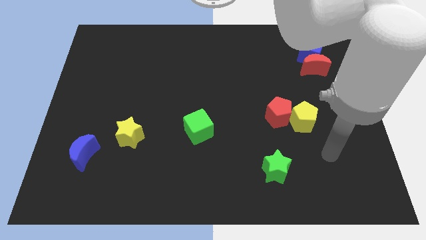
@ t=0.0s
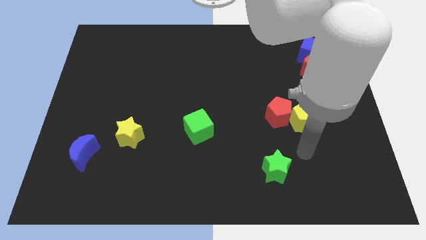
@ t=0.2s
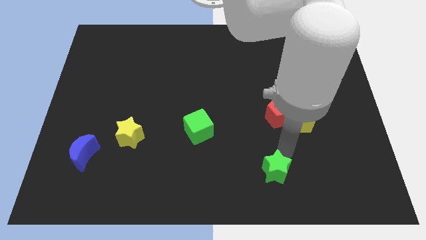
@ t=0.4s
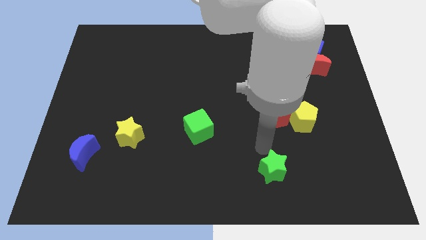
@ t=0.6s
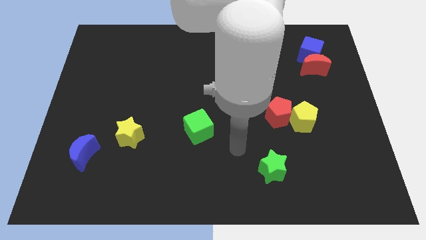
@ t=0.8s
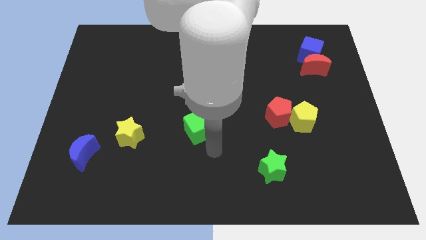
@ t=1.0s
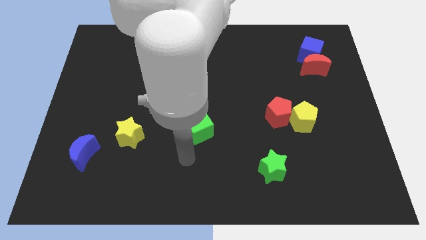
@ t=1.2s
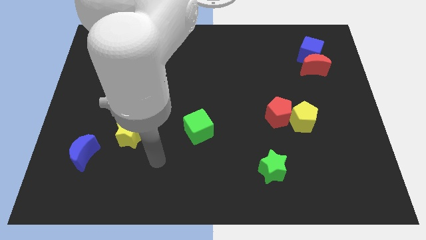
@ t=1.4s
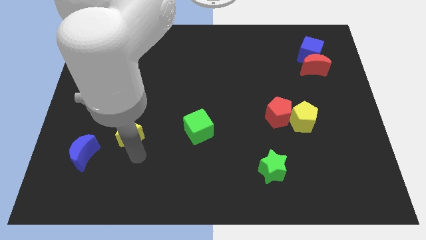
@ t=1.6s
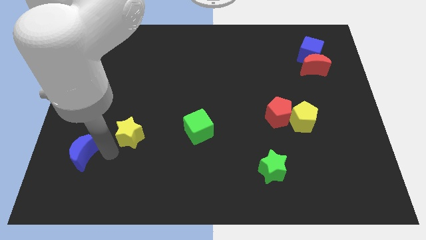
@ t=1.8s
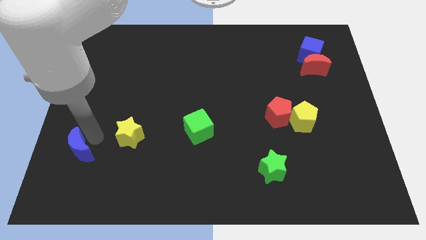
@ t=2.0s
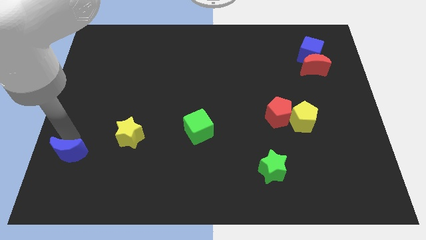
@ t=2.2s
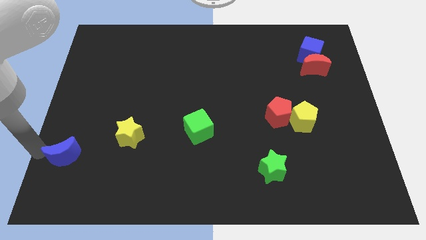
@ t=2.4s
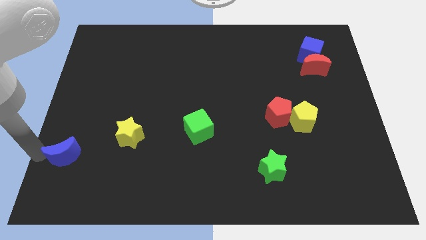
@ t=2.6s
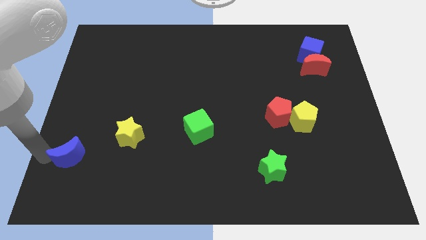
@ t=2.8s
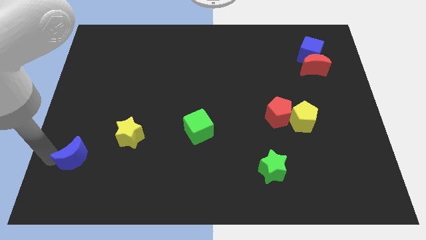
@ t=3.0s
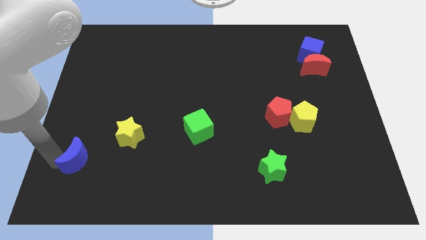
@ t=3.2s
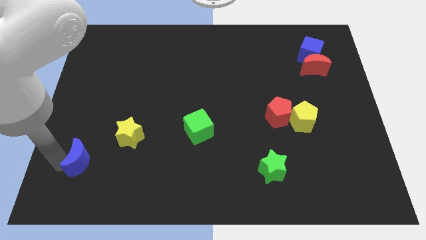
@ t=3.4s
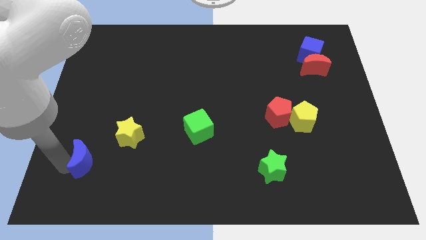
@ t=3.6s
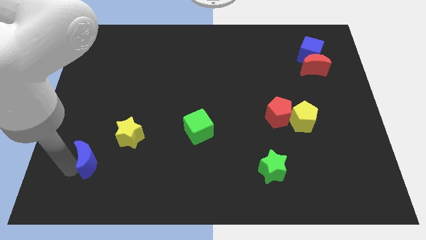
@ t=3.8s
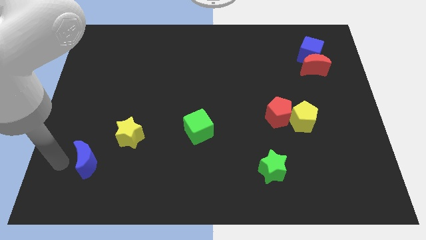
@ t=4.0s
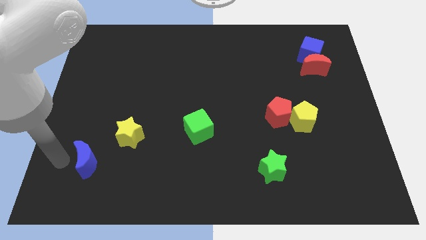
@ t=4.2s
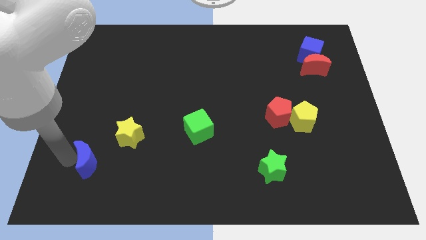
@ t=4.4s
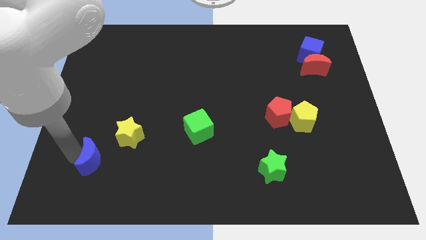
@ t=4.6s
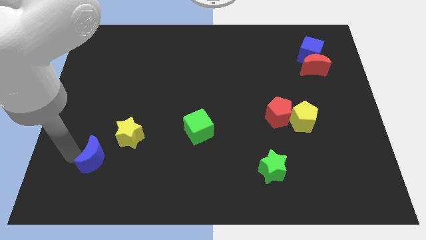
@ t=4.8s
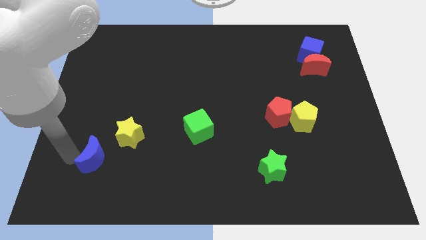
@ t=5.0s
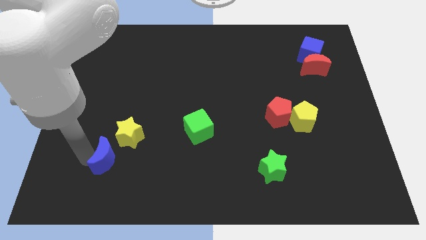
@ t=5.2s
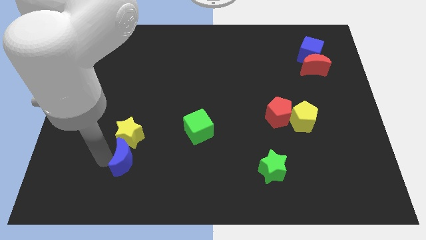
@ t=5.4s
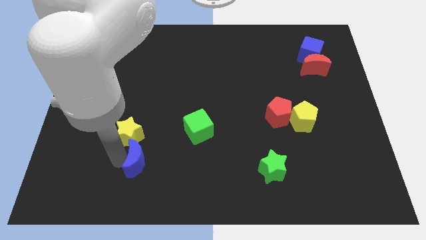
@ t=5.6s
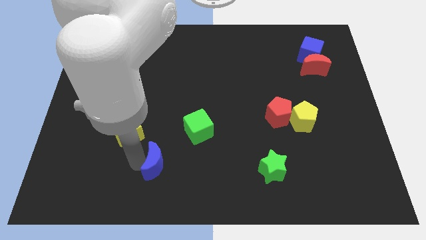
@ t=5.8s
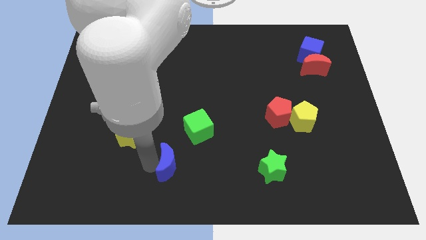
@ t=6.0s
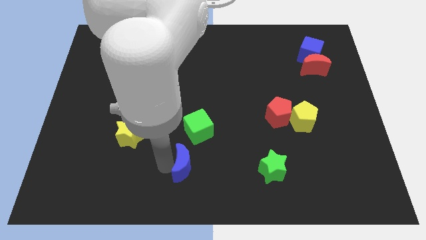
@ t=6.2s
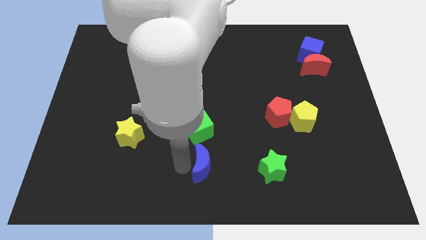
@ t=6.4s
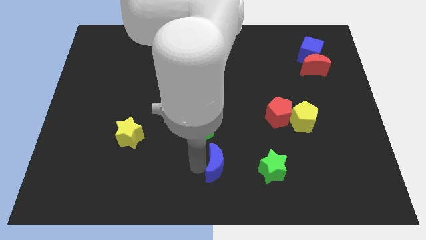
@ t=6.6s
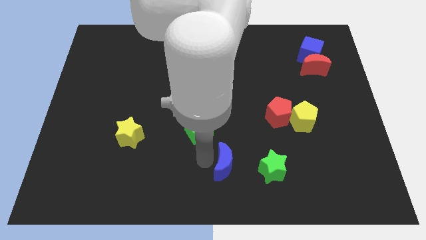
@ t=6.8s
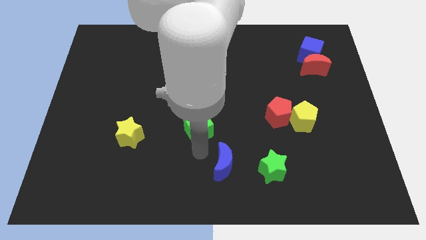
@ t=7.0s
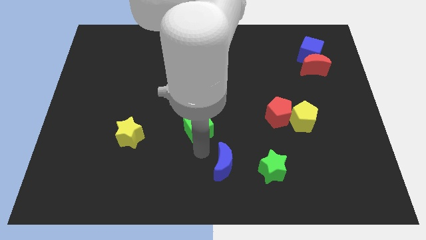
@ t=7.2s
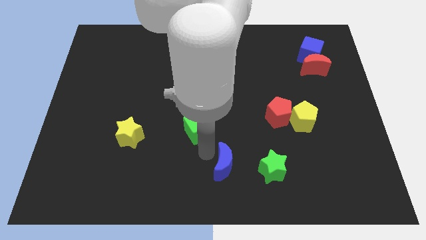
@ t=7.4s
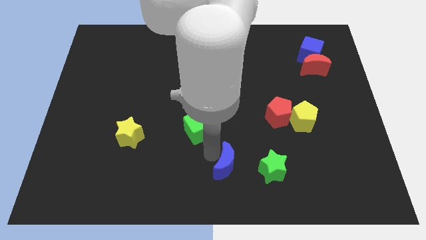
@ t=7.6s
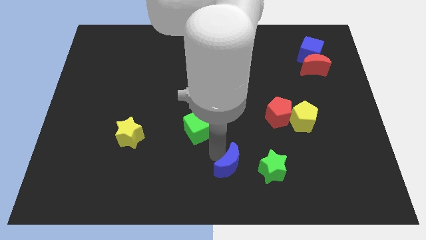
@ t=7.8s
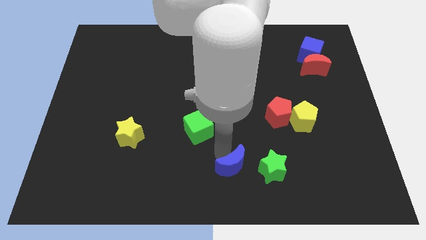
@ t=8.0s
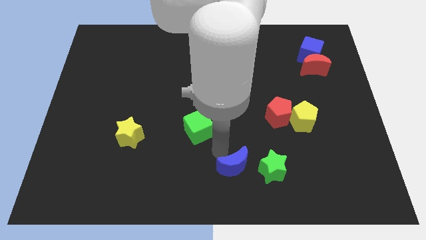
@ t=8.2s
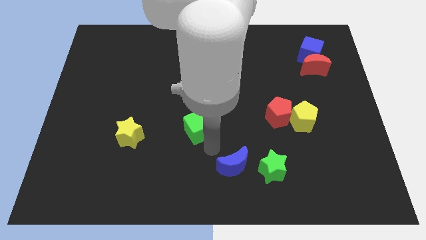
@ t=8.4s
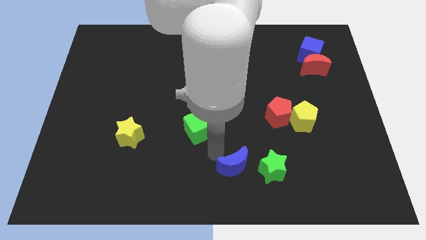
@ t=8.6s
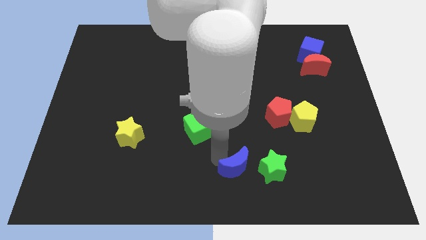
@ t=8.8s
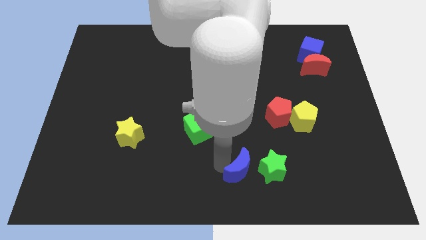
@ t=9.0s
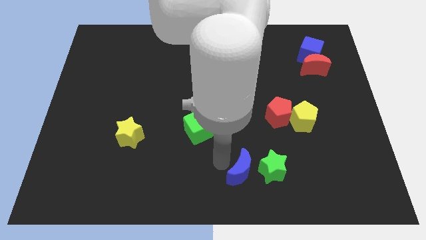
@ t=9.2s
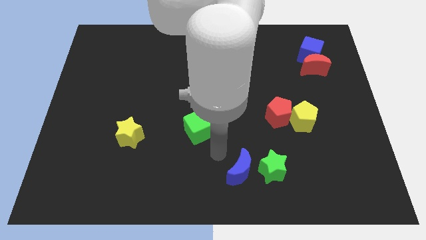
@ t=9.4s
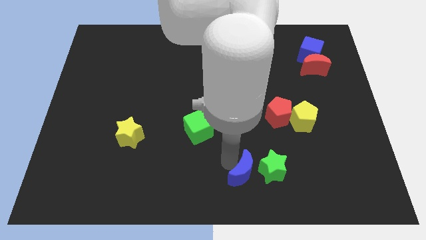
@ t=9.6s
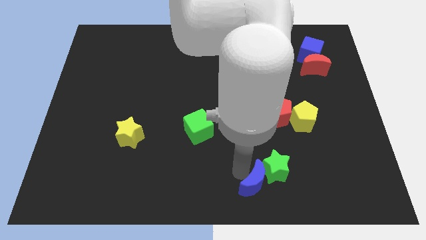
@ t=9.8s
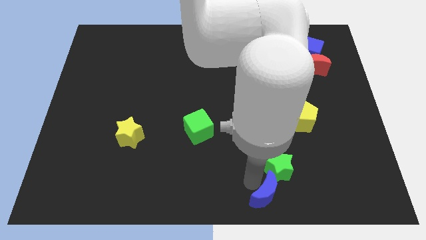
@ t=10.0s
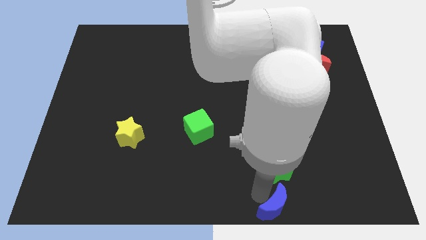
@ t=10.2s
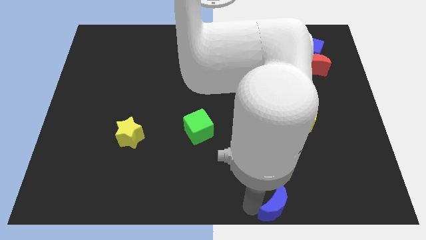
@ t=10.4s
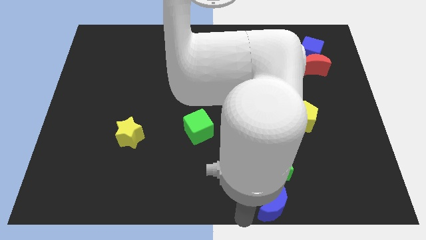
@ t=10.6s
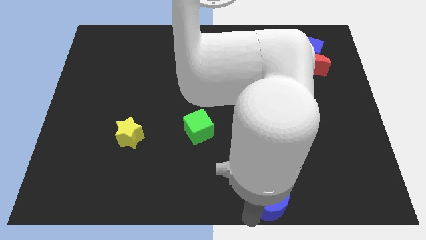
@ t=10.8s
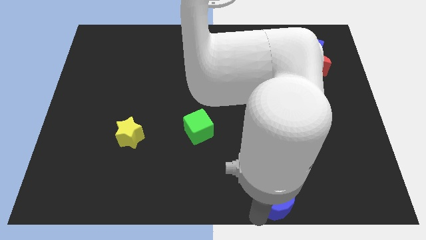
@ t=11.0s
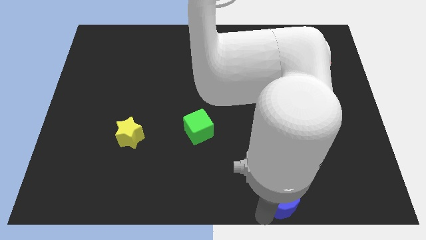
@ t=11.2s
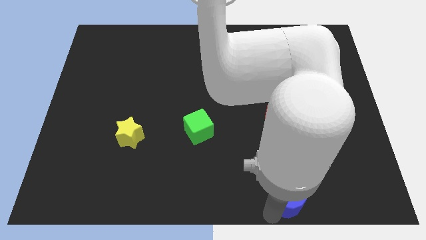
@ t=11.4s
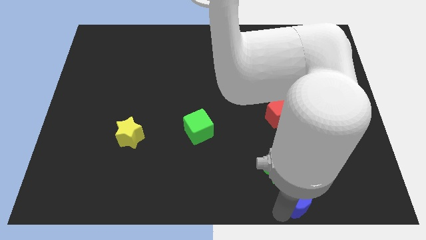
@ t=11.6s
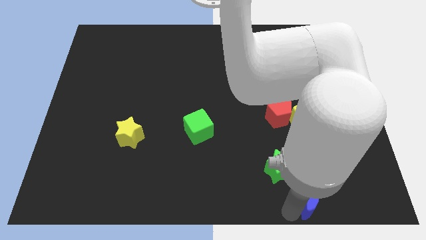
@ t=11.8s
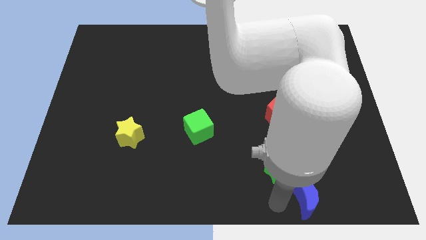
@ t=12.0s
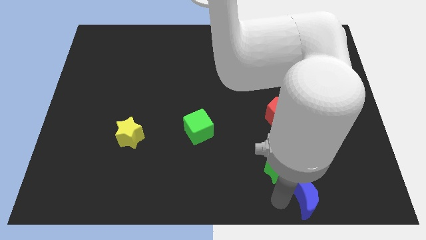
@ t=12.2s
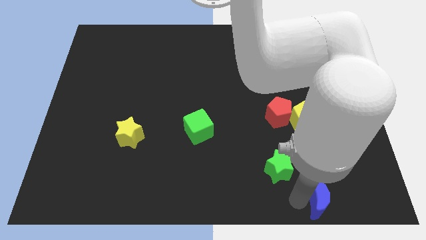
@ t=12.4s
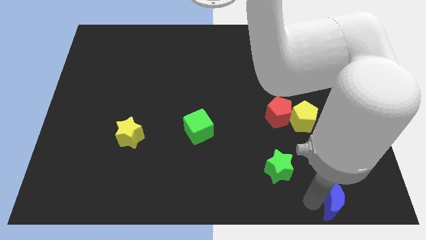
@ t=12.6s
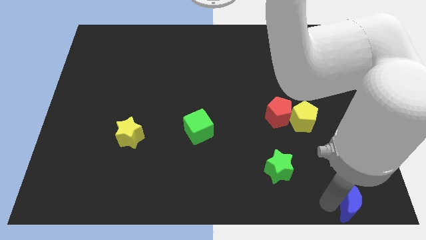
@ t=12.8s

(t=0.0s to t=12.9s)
move the blue moon to the bottom right corner
